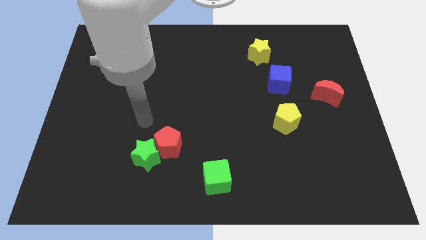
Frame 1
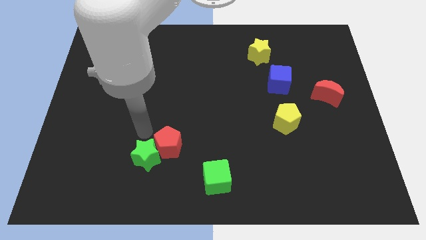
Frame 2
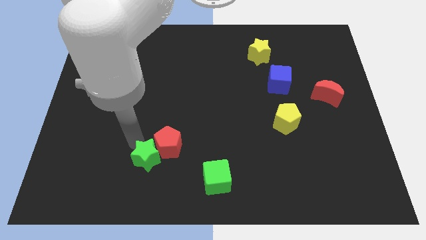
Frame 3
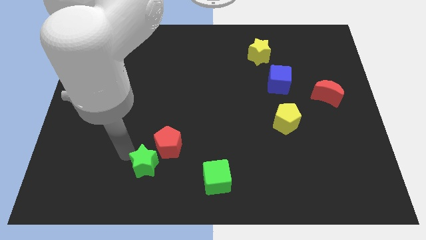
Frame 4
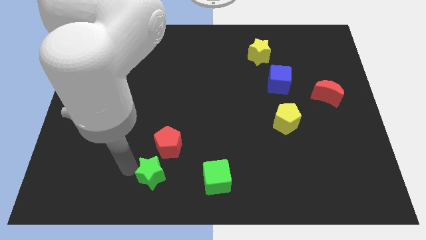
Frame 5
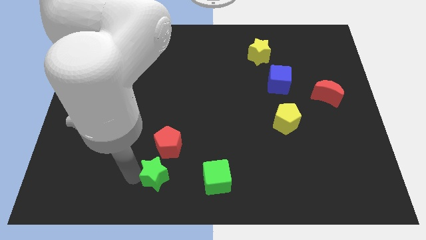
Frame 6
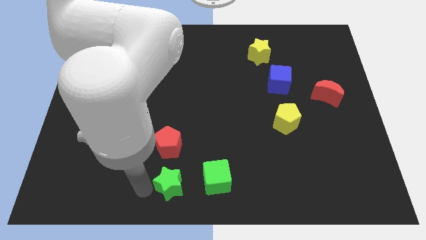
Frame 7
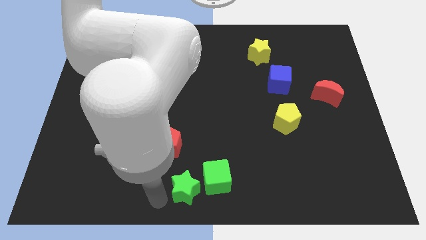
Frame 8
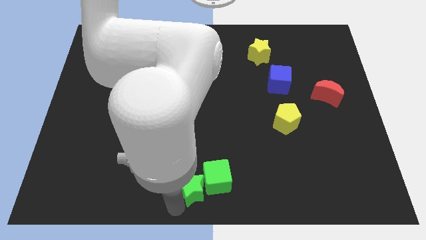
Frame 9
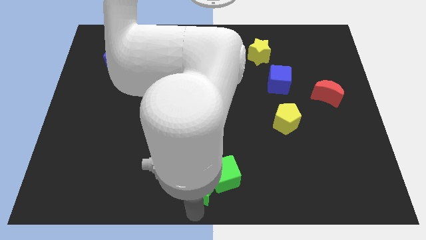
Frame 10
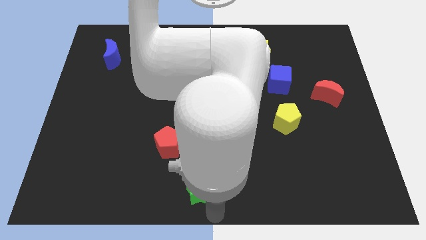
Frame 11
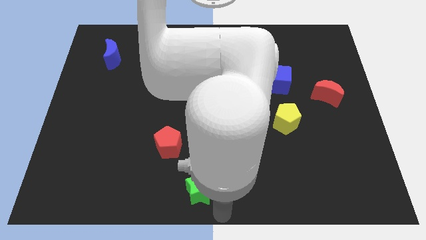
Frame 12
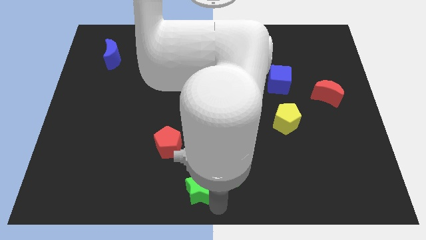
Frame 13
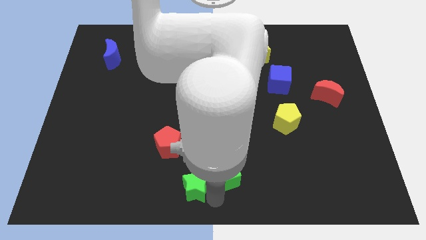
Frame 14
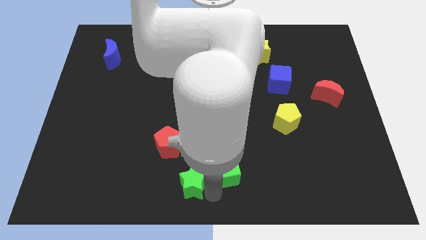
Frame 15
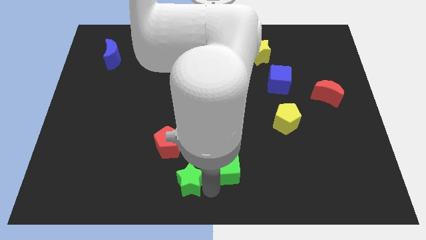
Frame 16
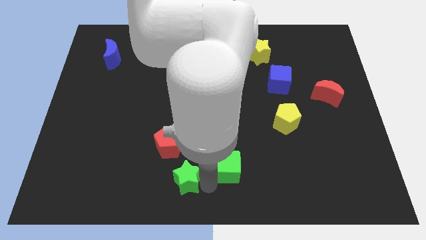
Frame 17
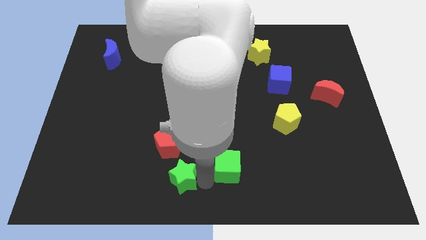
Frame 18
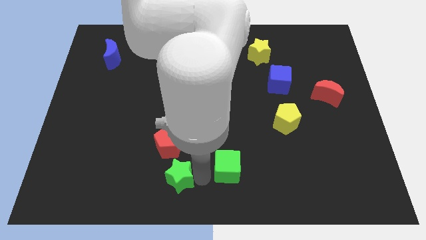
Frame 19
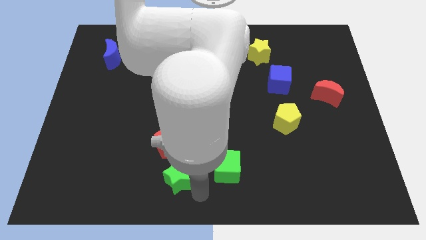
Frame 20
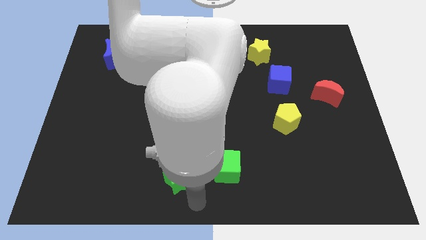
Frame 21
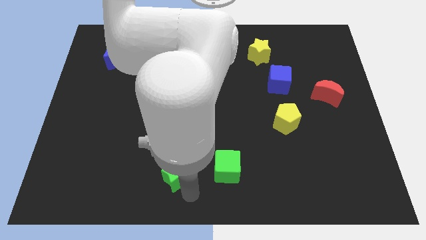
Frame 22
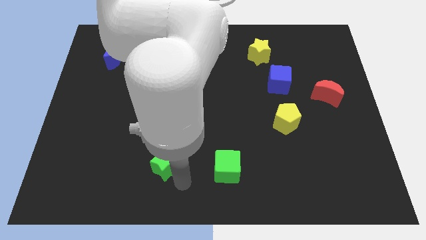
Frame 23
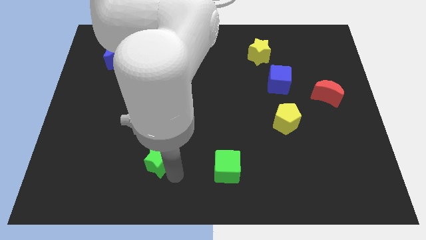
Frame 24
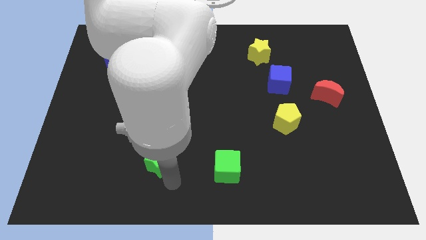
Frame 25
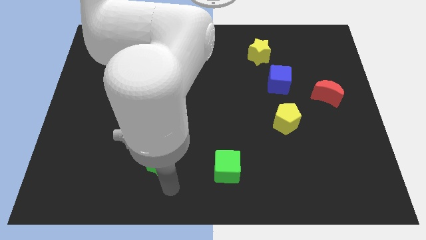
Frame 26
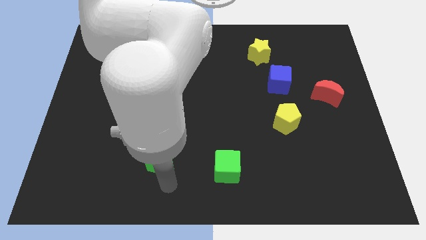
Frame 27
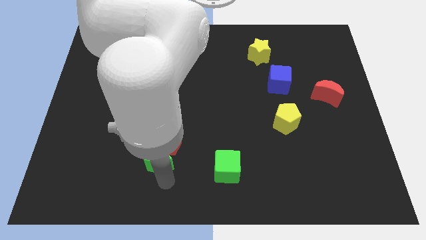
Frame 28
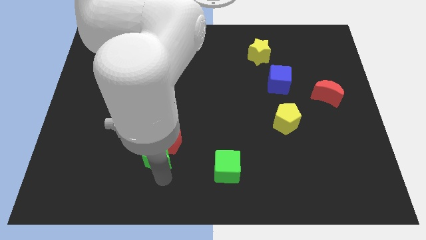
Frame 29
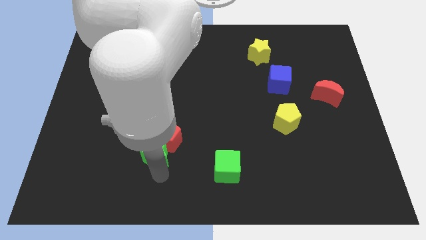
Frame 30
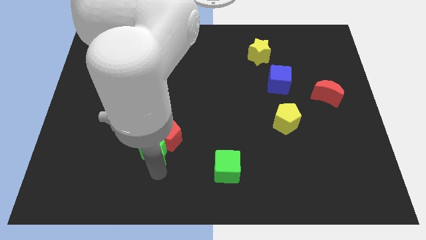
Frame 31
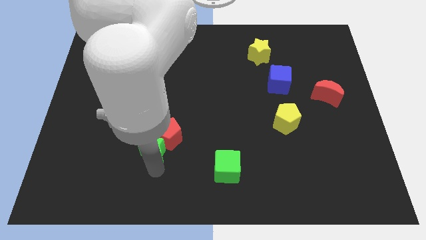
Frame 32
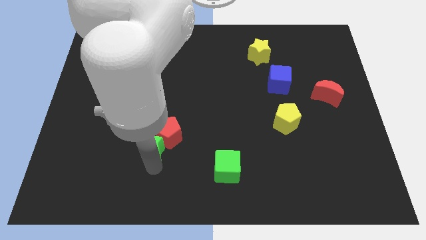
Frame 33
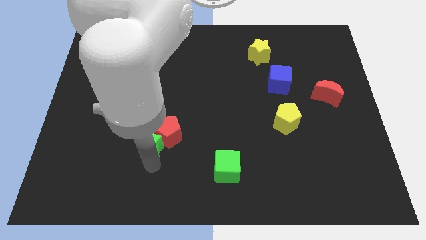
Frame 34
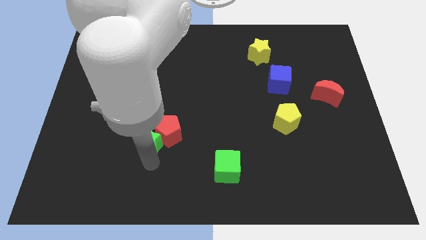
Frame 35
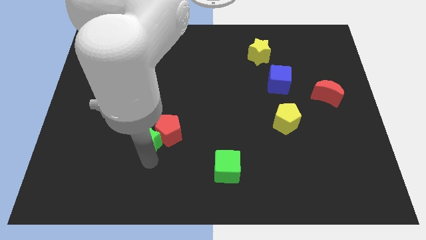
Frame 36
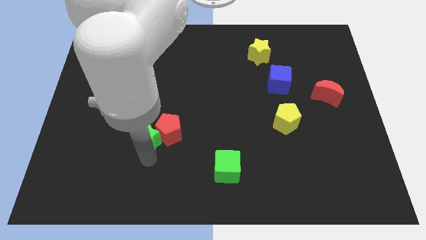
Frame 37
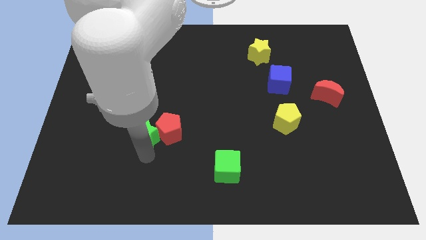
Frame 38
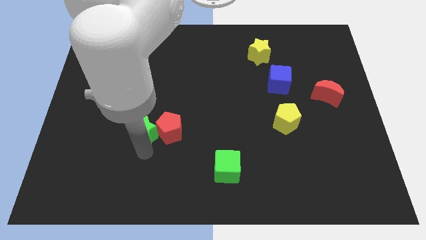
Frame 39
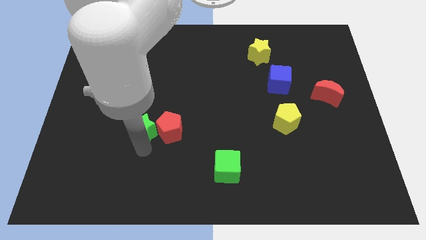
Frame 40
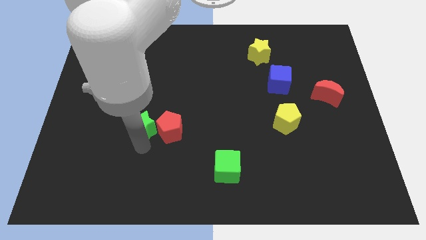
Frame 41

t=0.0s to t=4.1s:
slightly slide the green star upwards

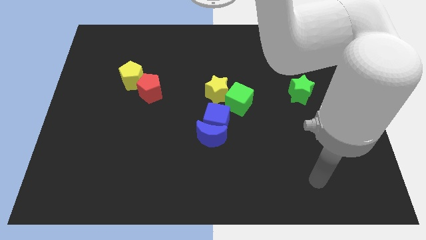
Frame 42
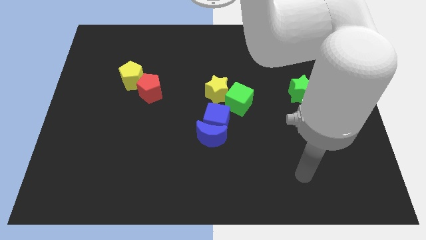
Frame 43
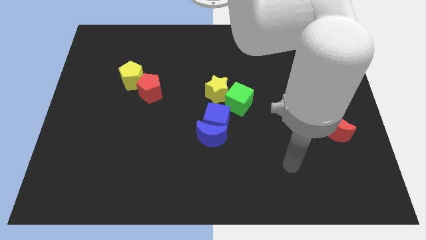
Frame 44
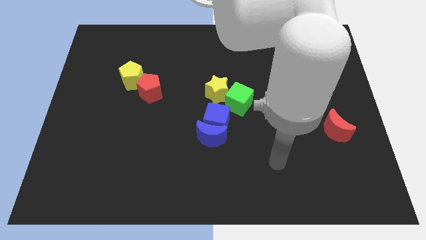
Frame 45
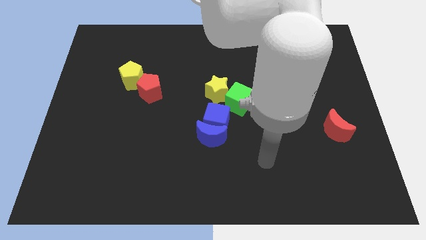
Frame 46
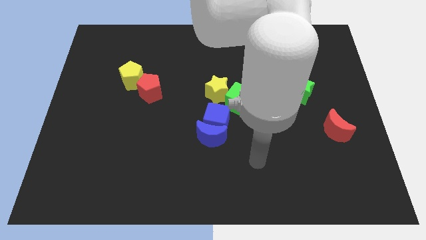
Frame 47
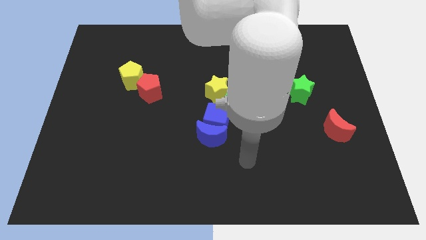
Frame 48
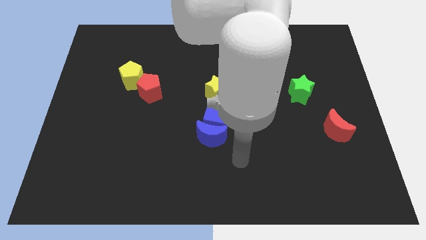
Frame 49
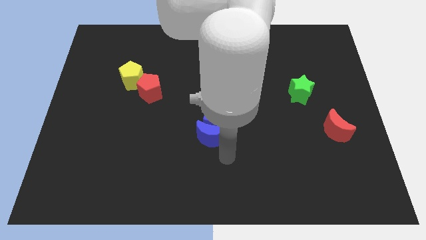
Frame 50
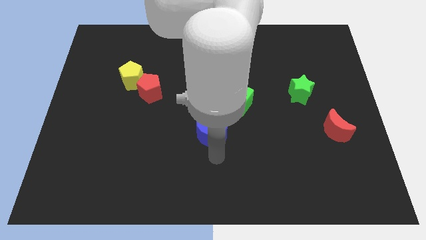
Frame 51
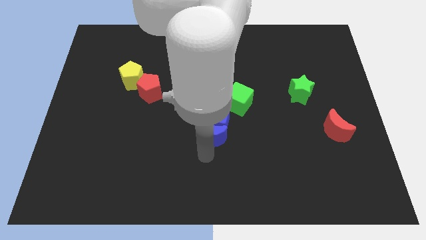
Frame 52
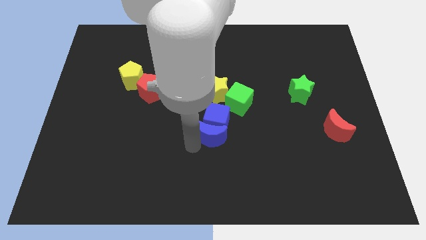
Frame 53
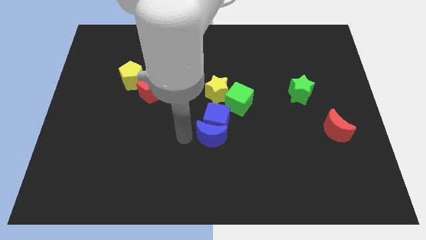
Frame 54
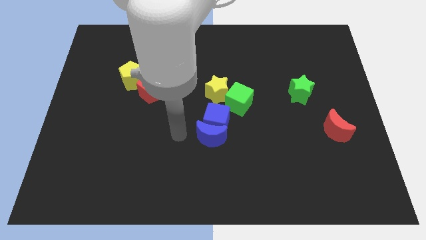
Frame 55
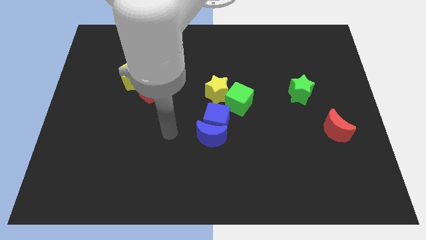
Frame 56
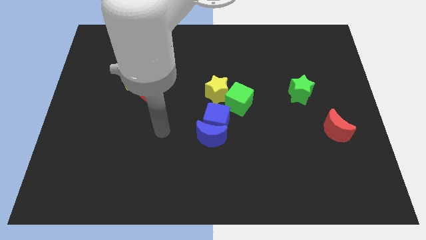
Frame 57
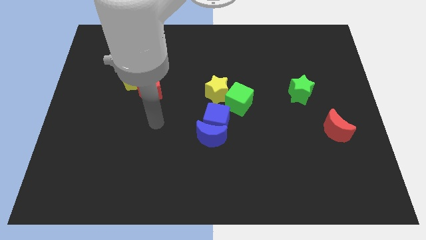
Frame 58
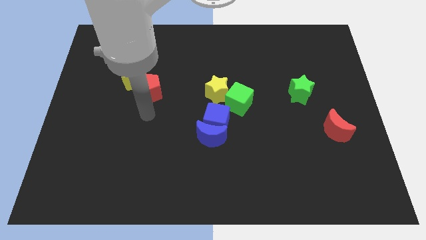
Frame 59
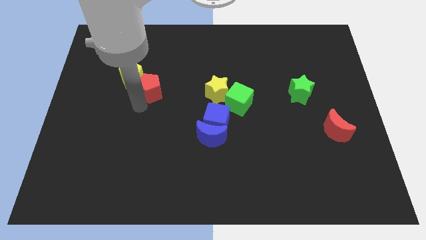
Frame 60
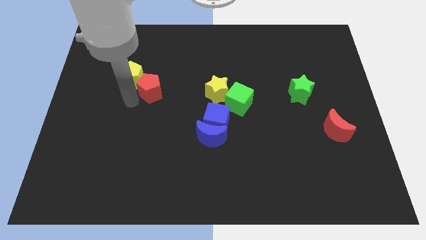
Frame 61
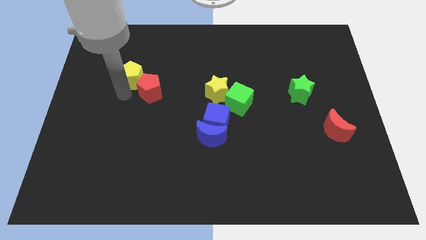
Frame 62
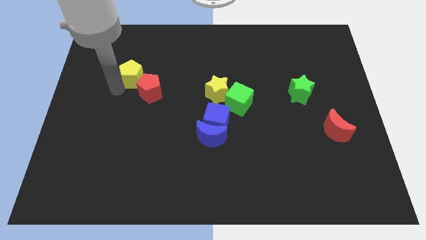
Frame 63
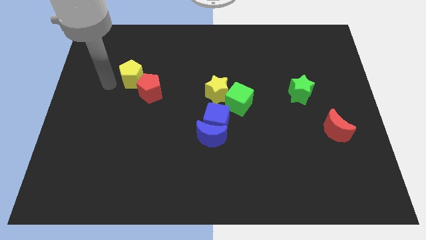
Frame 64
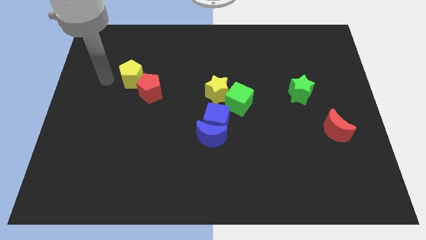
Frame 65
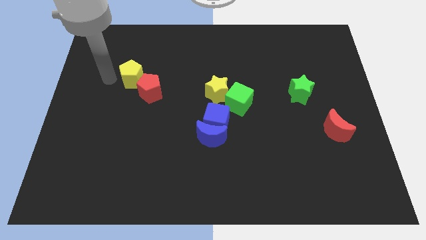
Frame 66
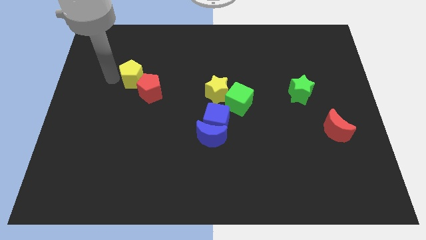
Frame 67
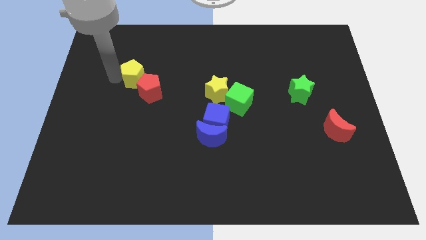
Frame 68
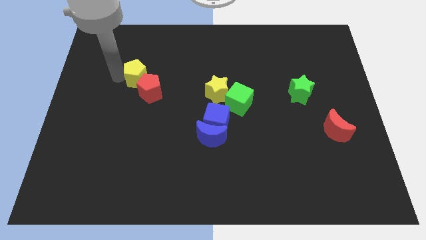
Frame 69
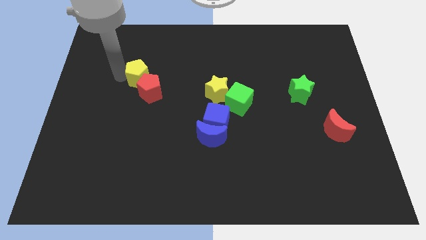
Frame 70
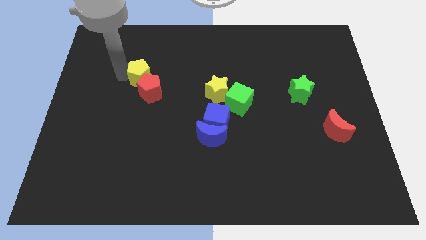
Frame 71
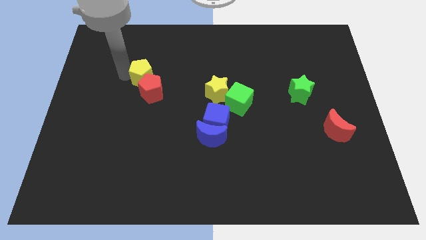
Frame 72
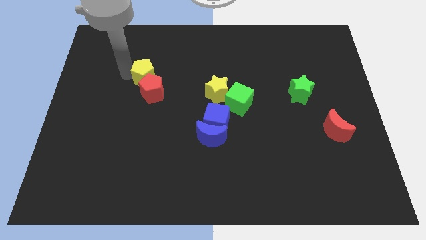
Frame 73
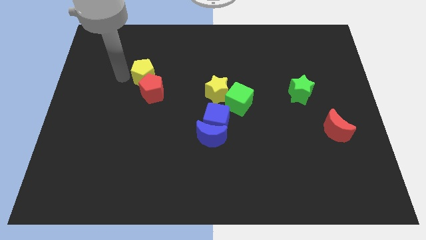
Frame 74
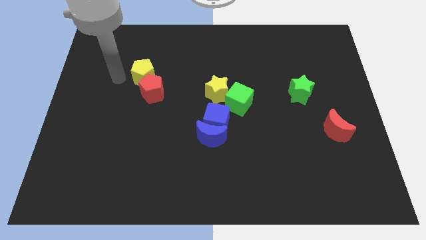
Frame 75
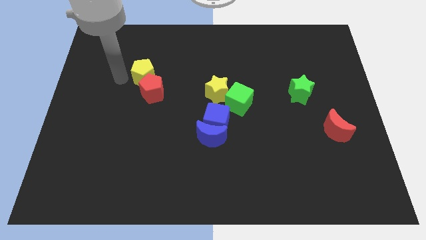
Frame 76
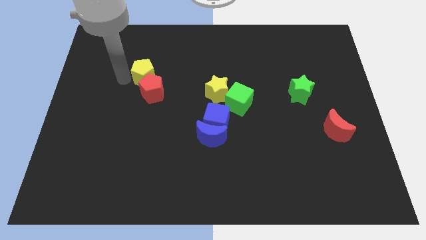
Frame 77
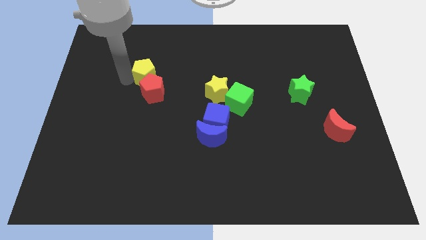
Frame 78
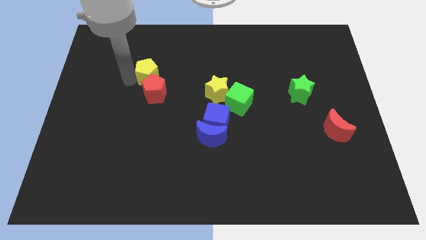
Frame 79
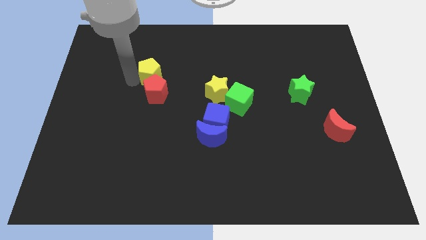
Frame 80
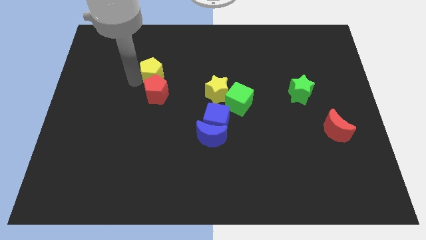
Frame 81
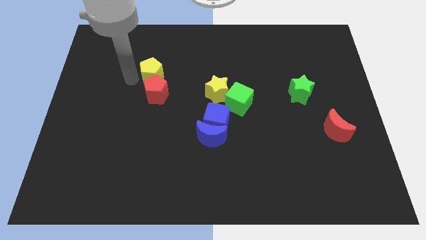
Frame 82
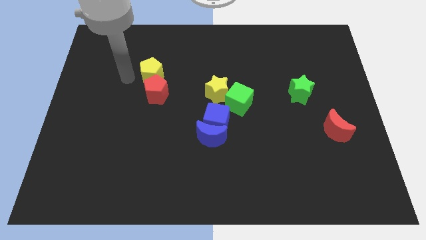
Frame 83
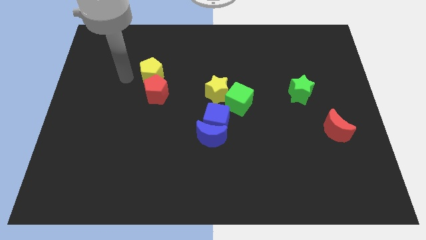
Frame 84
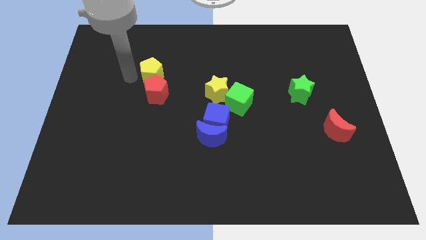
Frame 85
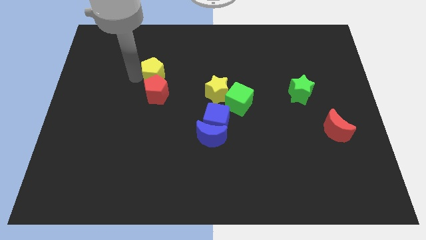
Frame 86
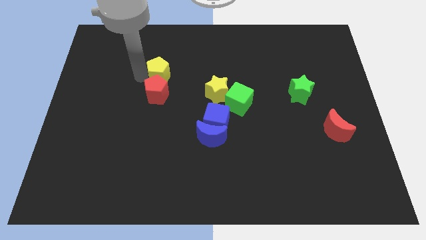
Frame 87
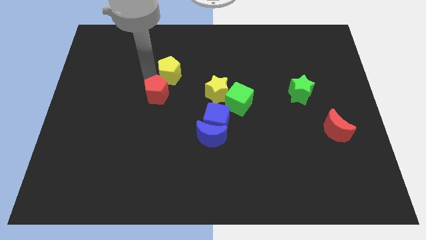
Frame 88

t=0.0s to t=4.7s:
push the yellow pentagon somewhat right
